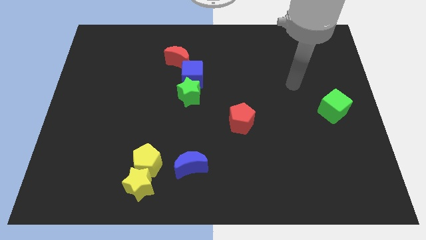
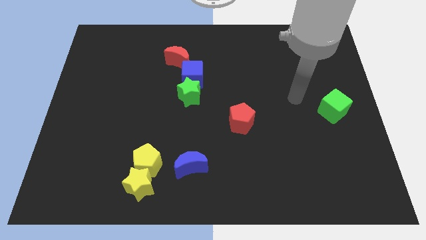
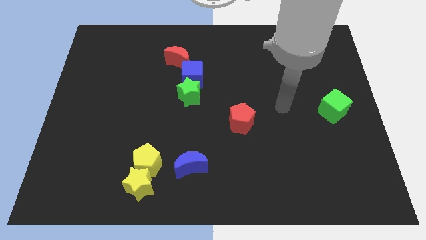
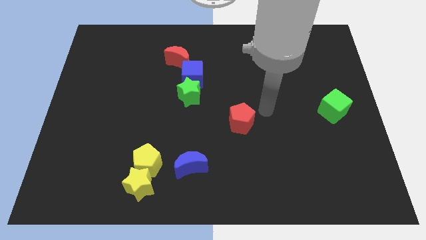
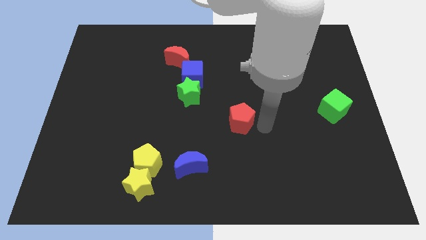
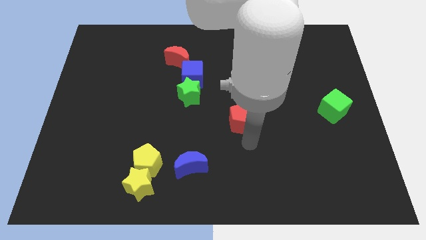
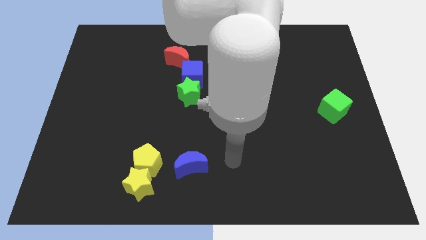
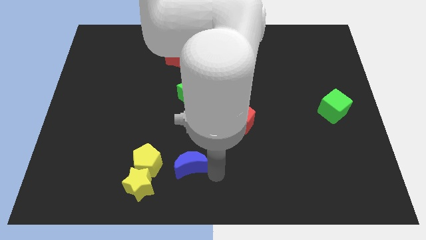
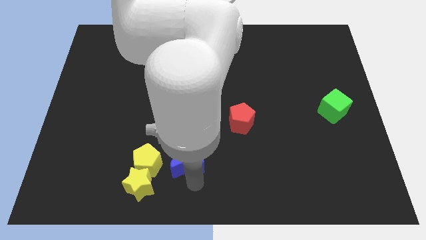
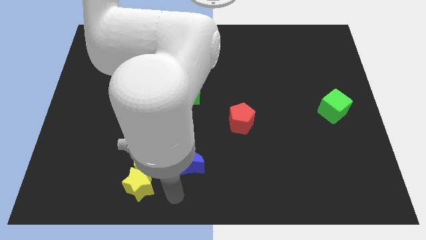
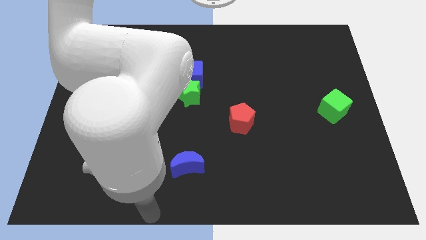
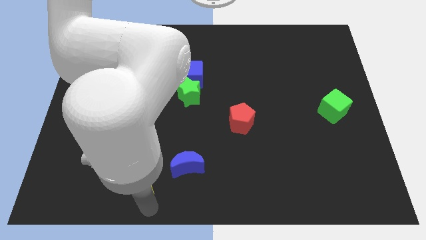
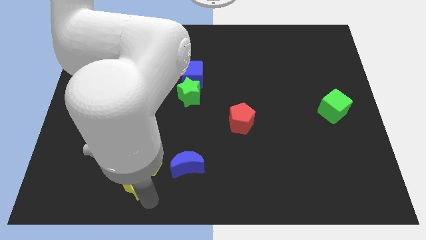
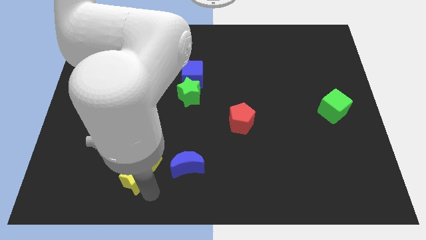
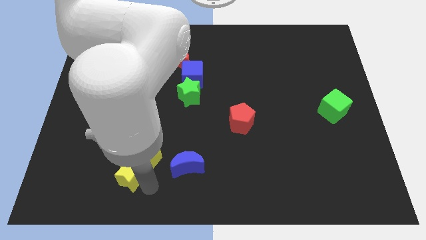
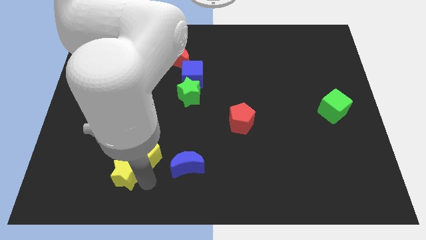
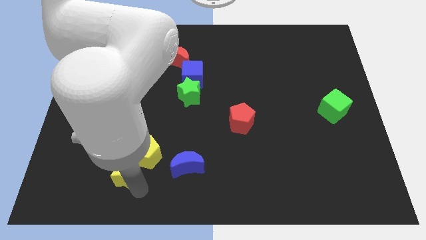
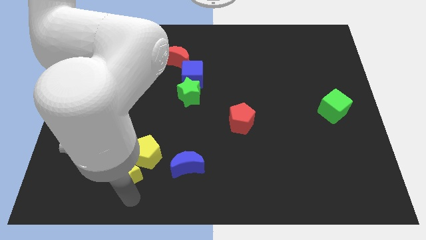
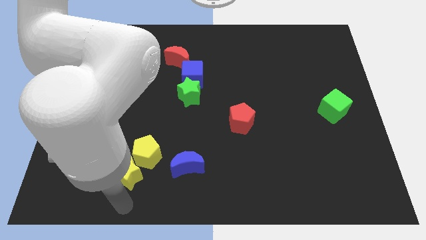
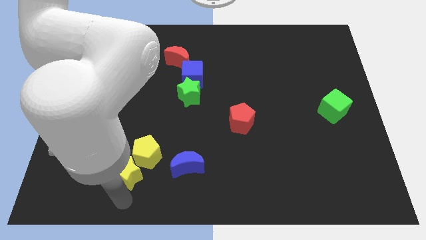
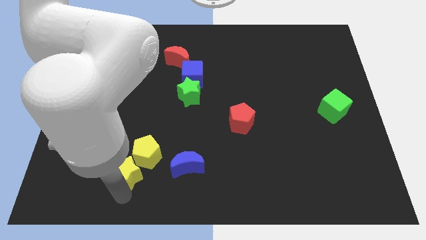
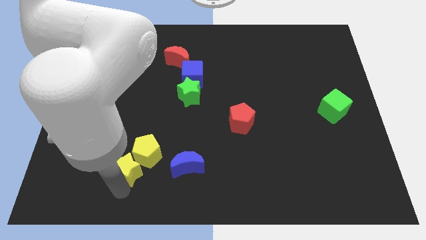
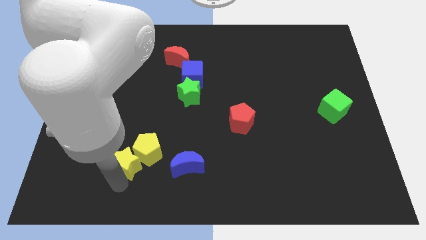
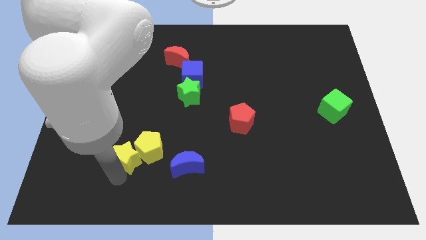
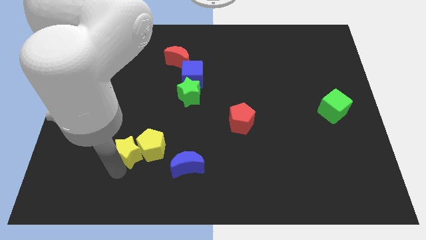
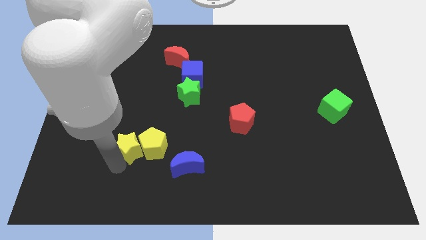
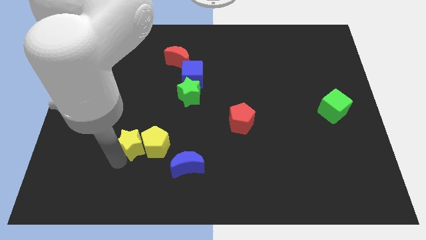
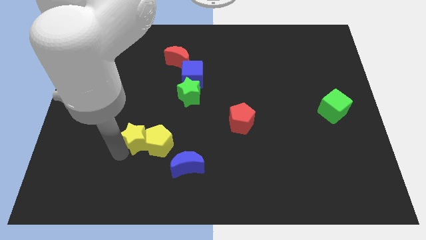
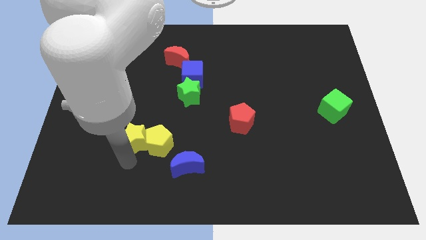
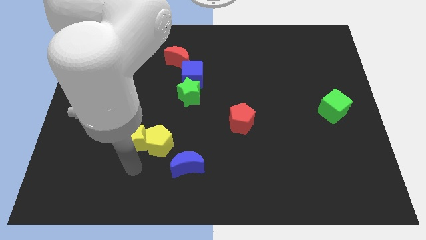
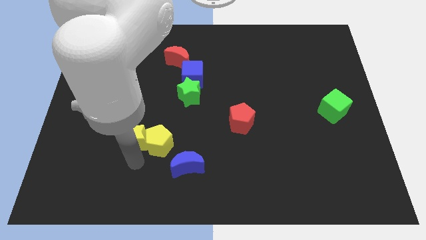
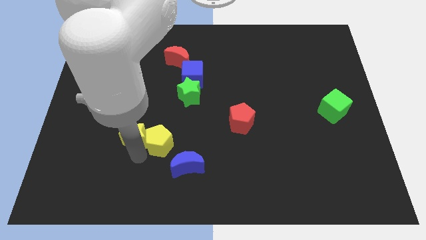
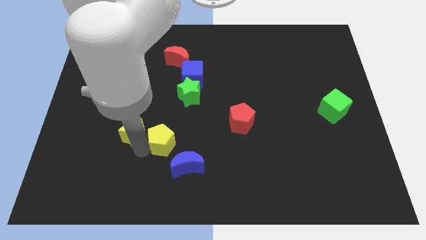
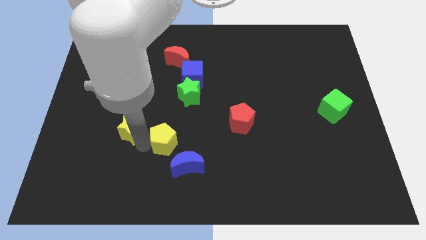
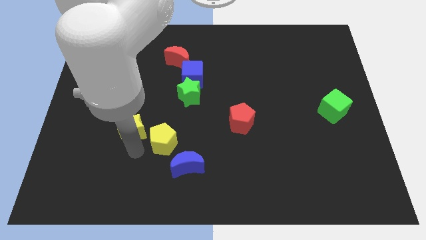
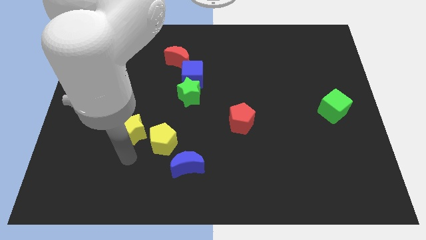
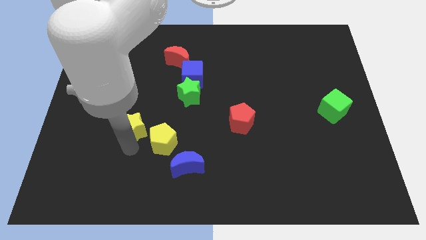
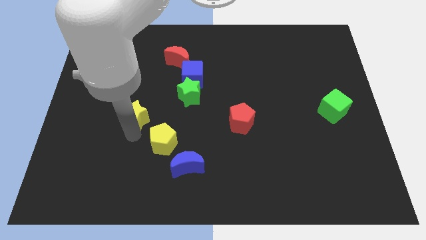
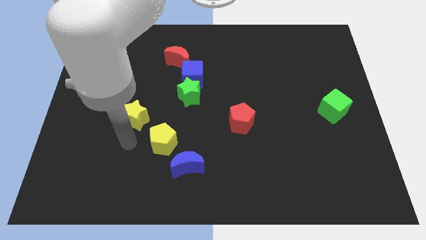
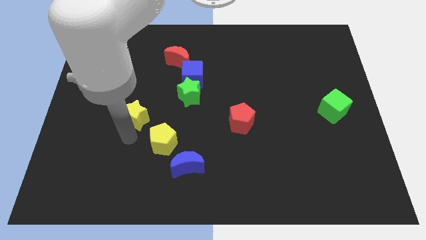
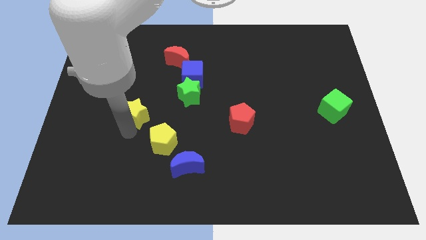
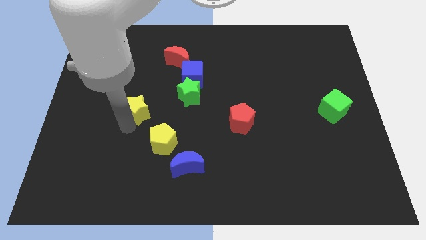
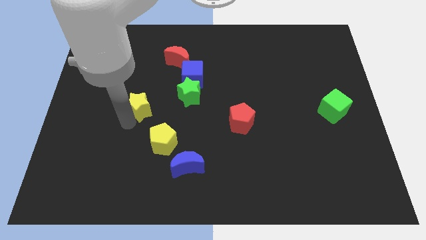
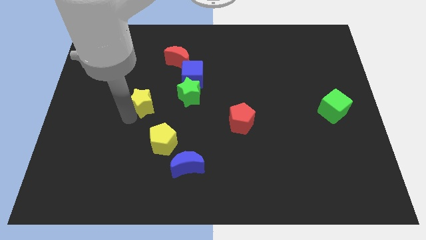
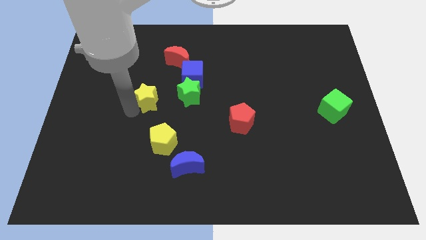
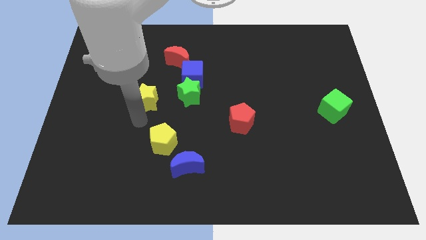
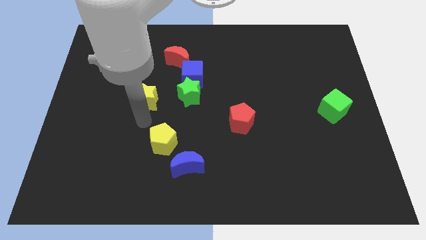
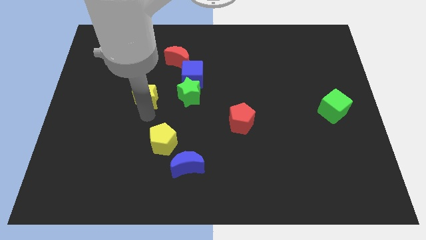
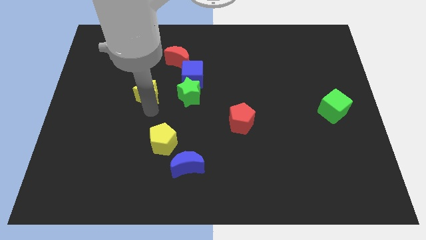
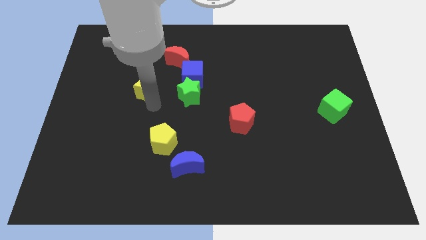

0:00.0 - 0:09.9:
slide the yellow star left of the blue cube

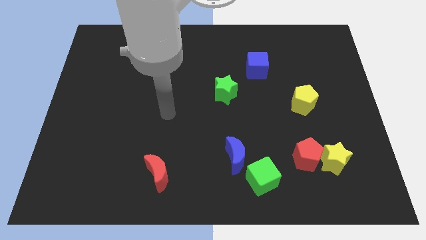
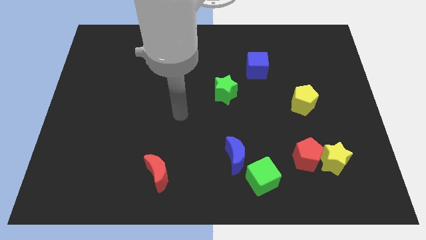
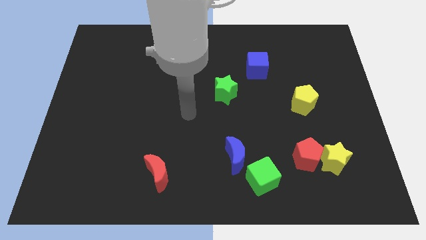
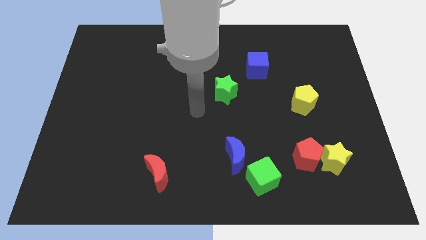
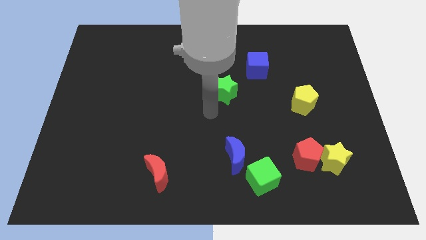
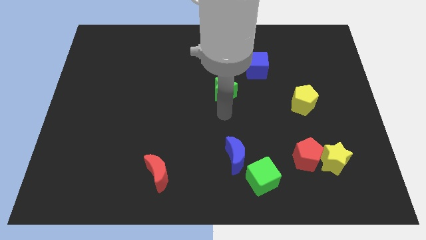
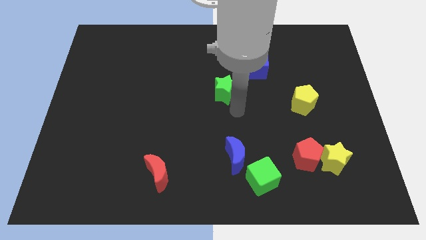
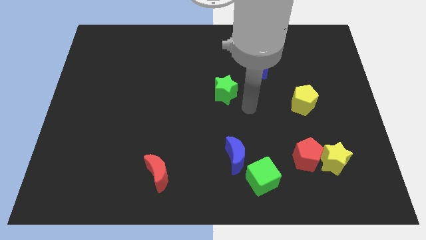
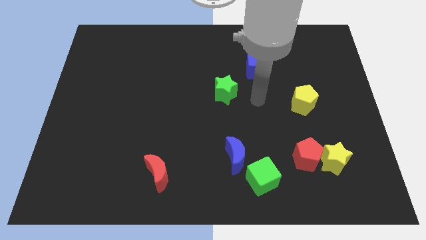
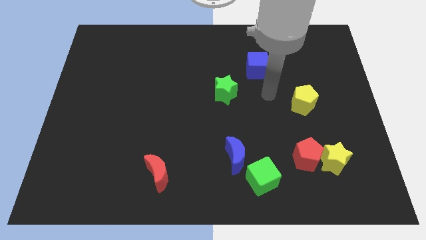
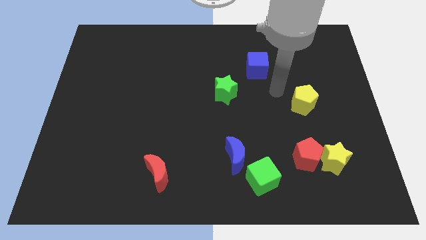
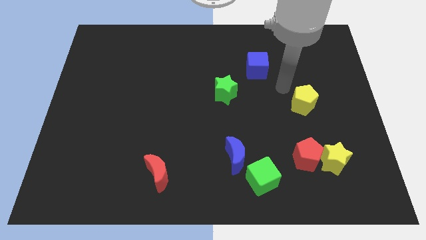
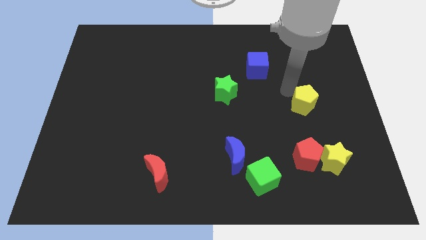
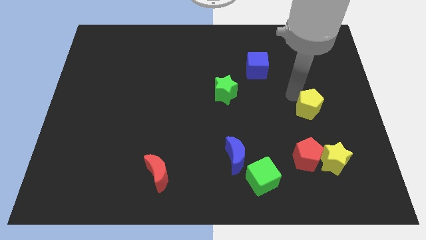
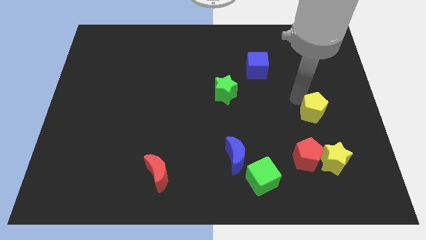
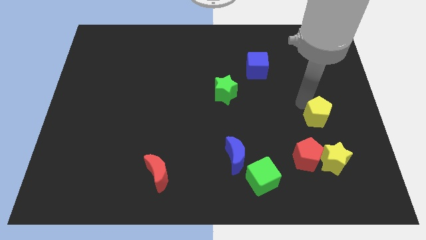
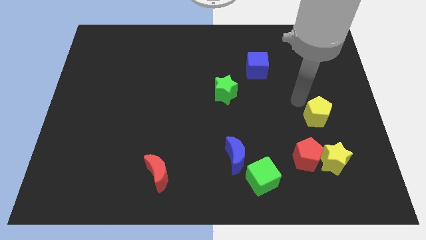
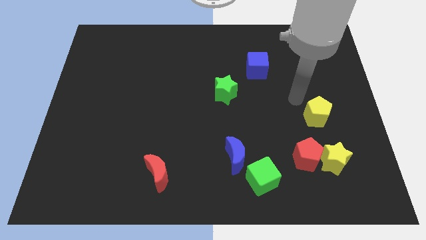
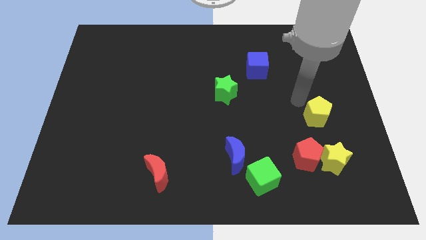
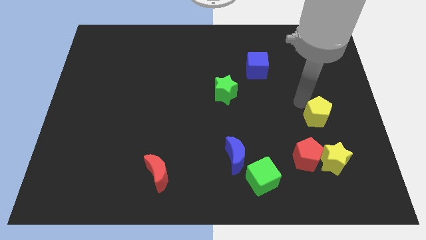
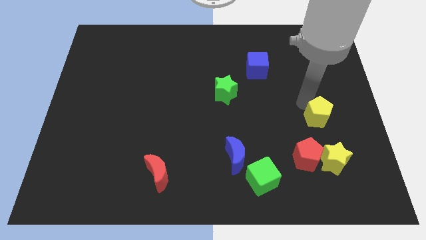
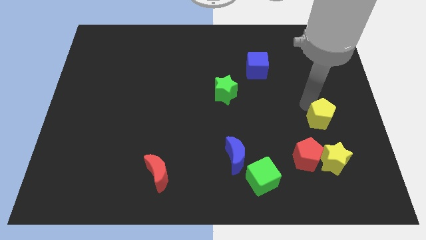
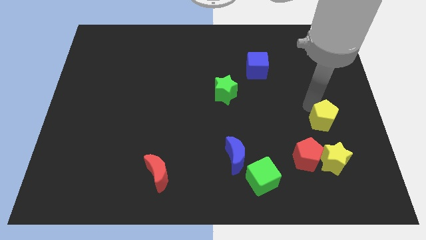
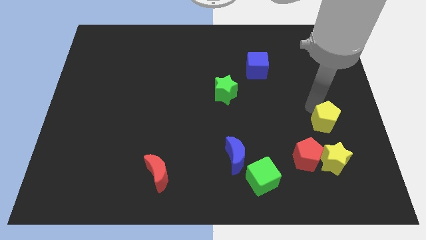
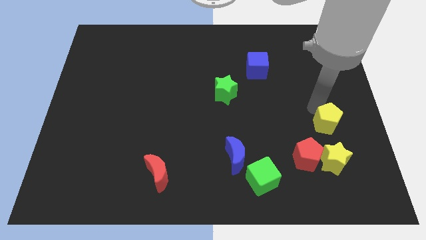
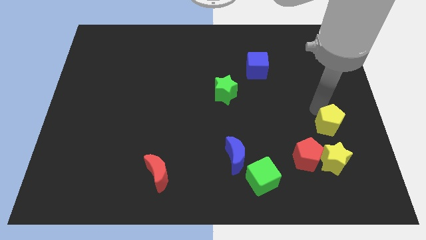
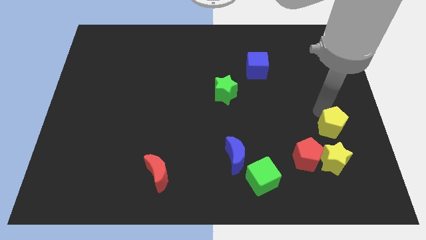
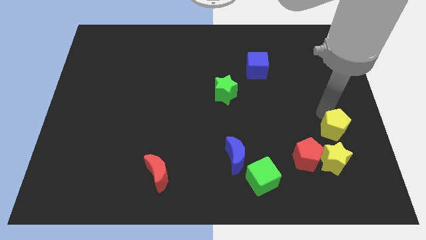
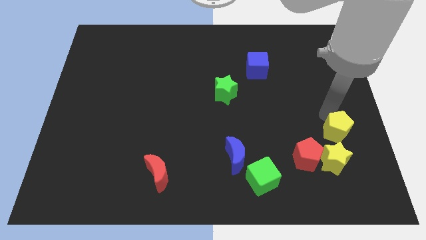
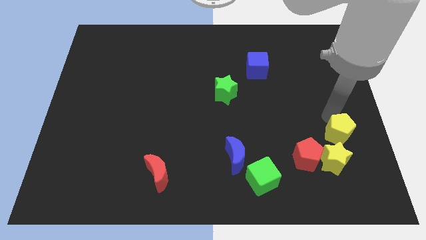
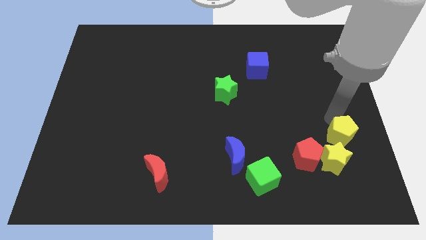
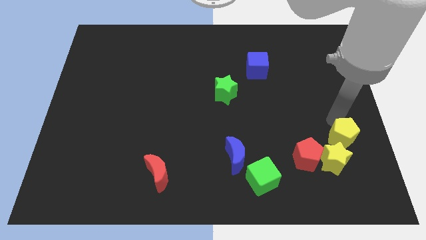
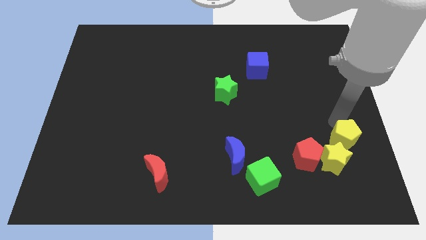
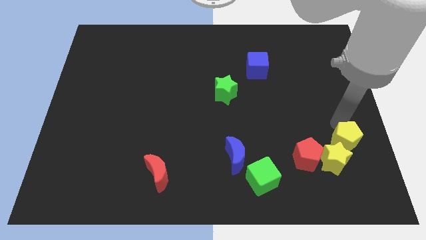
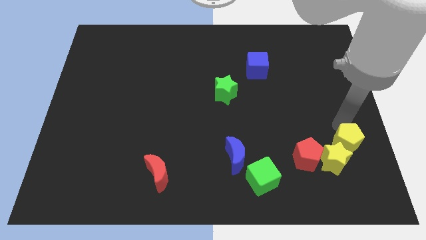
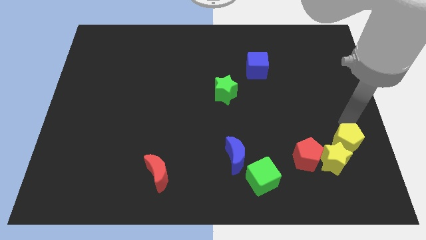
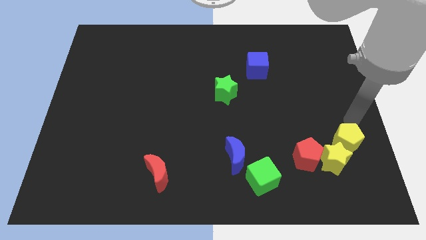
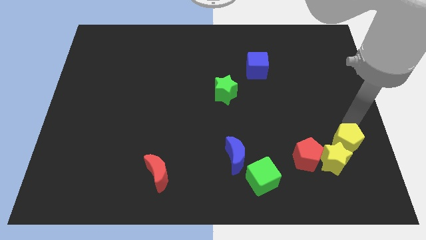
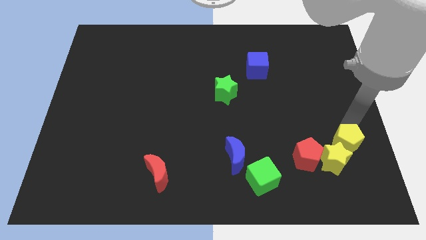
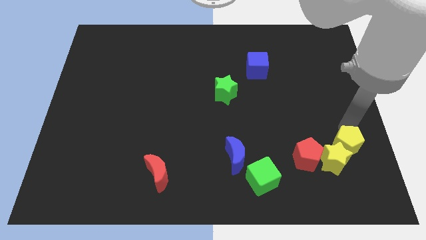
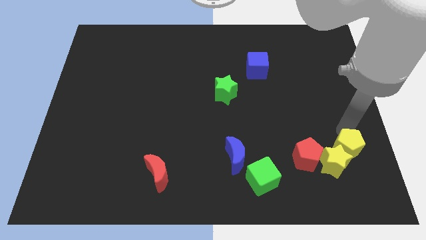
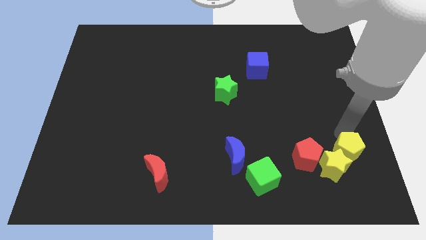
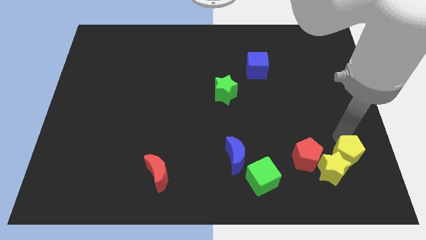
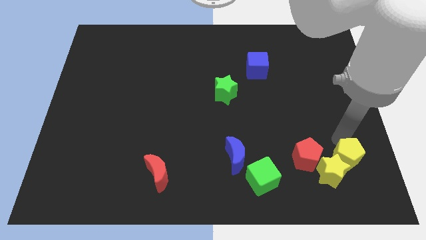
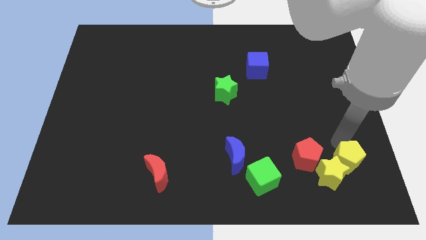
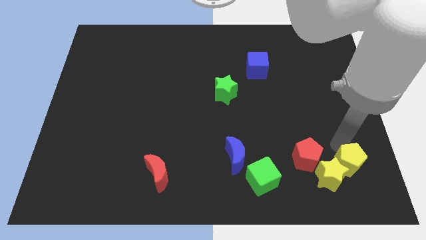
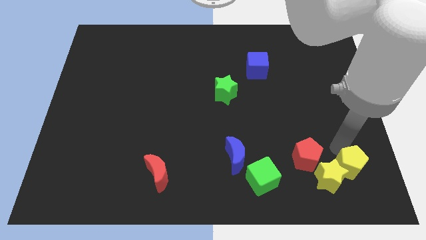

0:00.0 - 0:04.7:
slide the yellow pentagon diagonally down and to the right of the red pentagon
